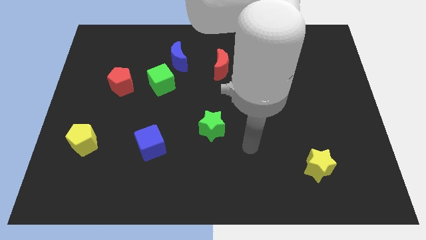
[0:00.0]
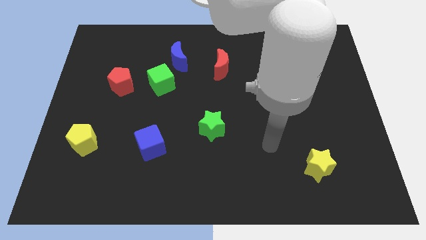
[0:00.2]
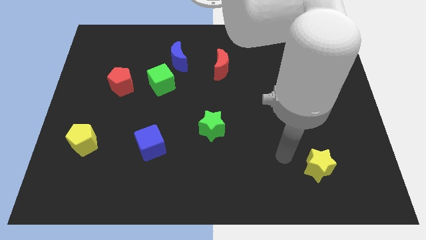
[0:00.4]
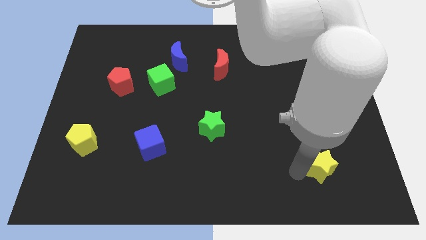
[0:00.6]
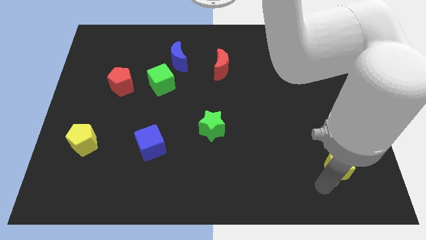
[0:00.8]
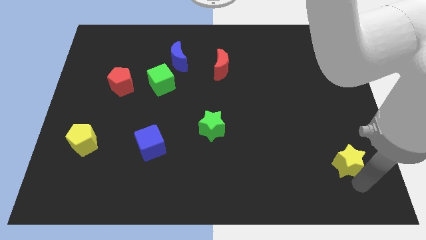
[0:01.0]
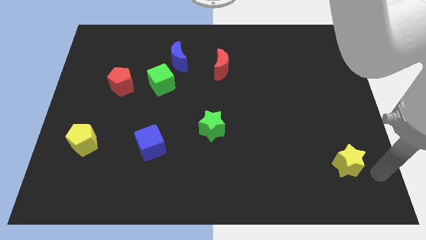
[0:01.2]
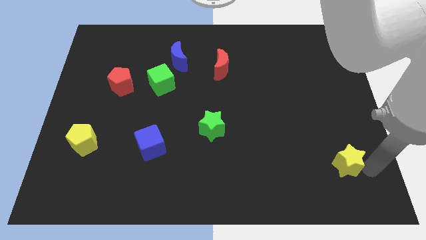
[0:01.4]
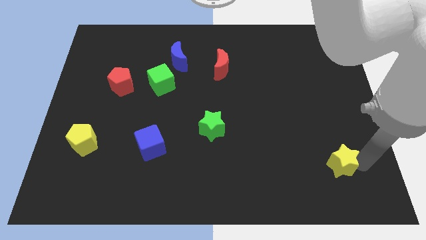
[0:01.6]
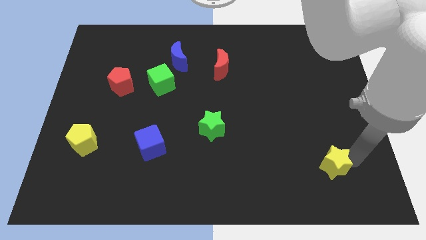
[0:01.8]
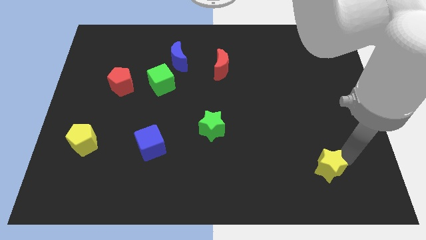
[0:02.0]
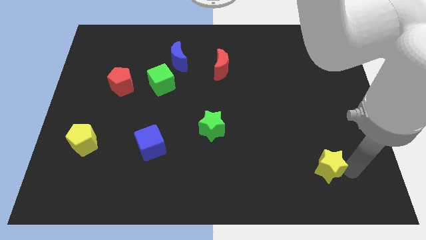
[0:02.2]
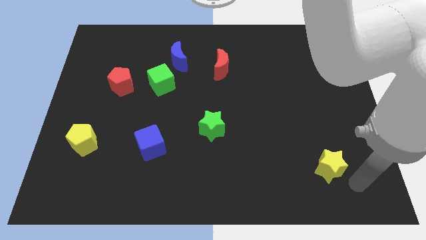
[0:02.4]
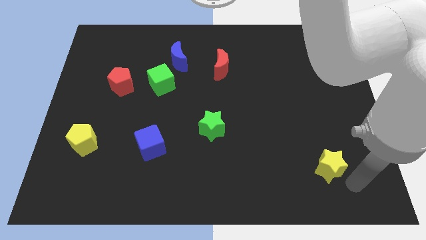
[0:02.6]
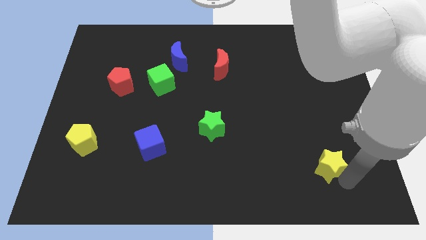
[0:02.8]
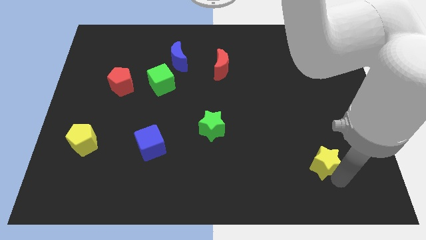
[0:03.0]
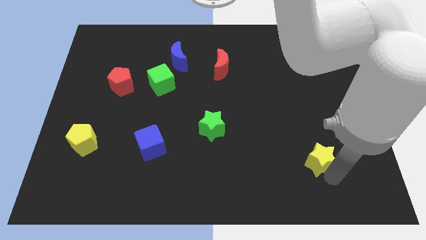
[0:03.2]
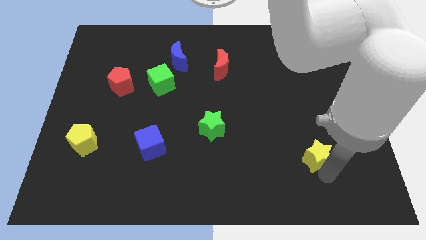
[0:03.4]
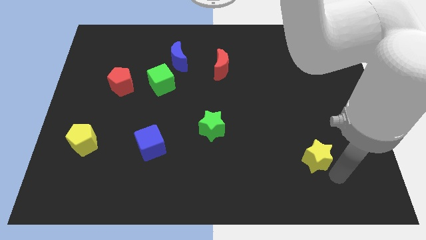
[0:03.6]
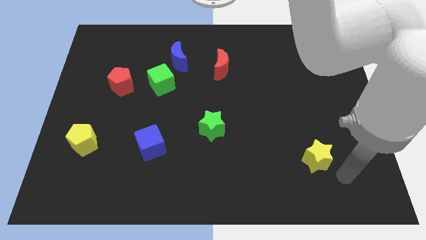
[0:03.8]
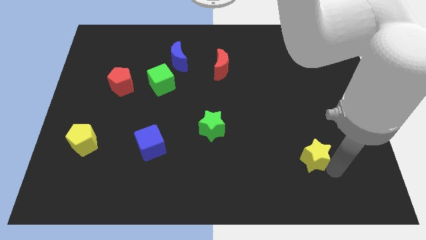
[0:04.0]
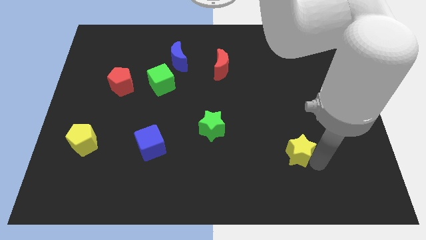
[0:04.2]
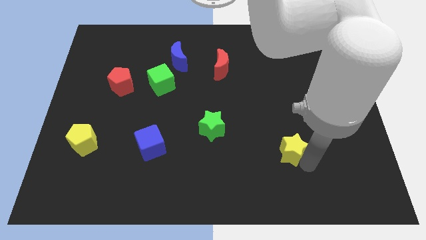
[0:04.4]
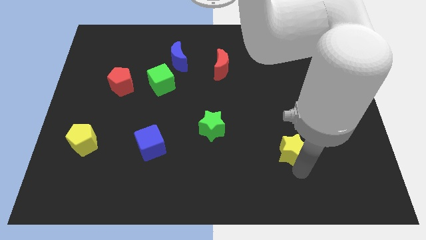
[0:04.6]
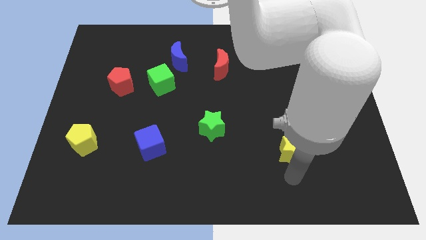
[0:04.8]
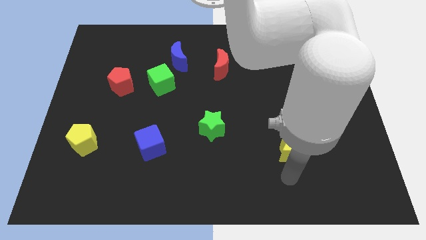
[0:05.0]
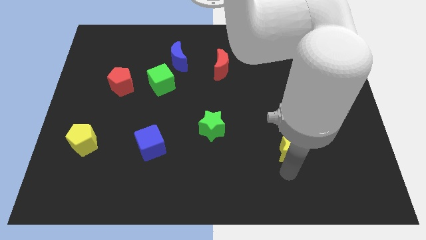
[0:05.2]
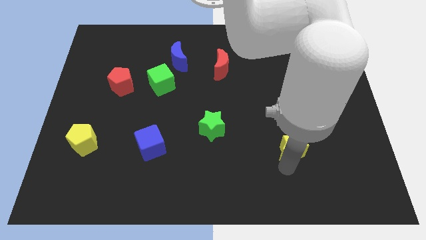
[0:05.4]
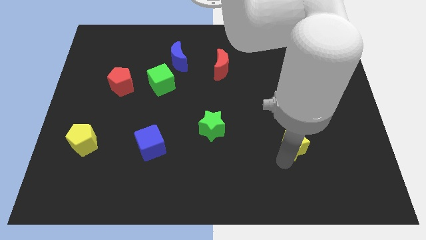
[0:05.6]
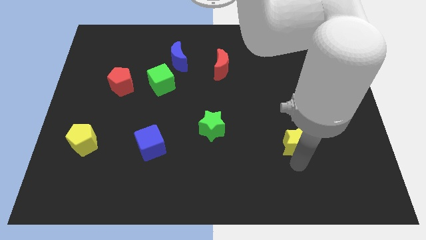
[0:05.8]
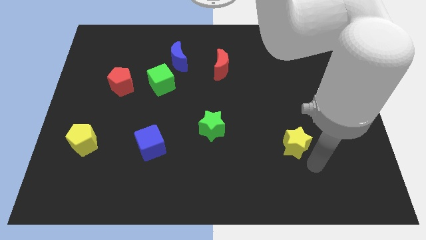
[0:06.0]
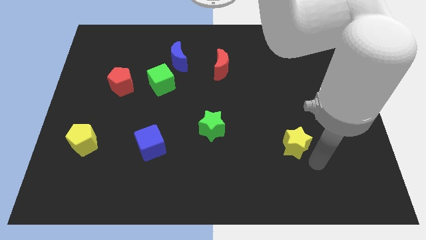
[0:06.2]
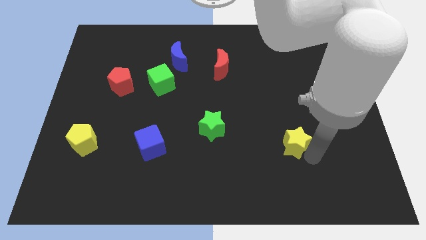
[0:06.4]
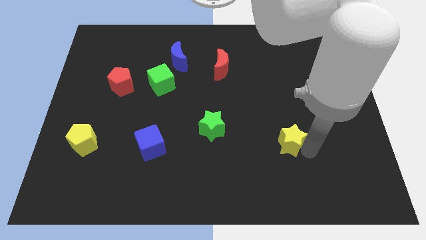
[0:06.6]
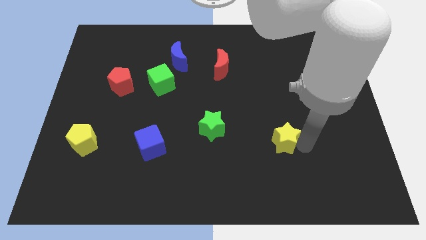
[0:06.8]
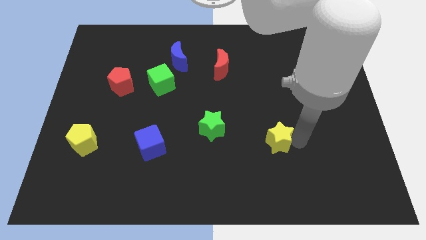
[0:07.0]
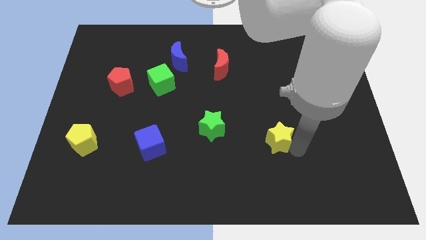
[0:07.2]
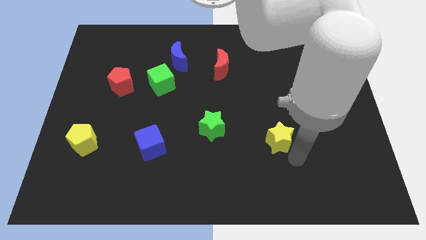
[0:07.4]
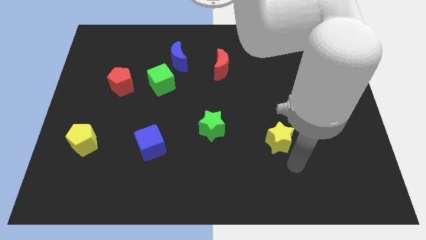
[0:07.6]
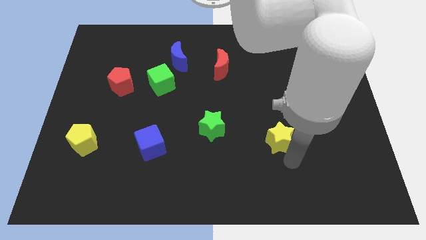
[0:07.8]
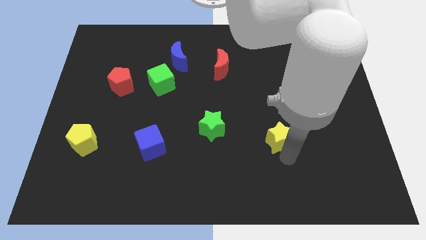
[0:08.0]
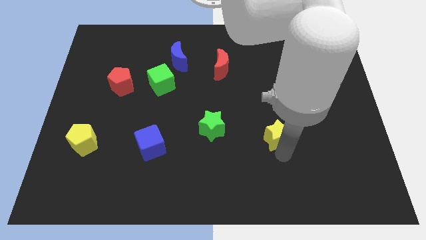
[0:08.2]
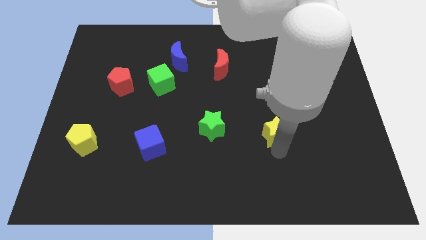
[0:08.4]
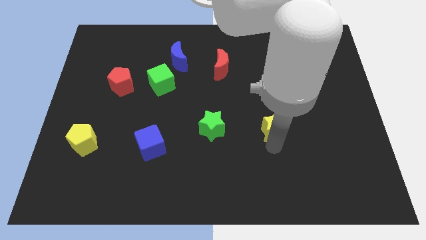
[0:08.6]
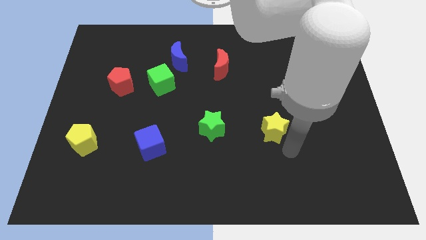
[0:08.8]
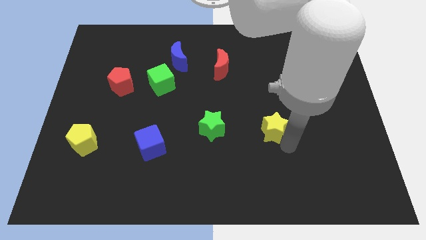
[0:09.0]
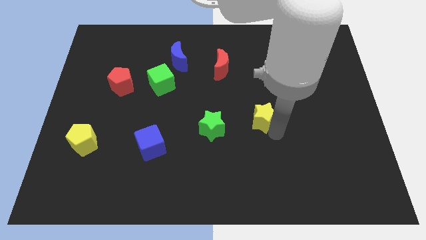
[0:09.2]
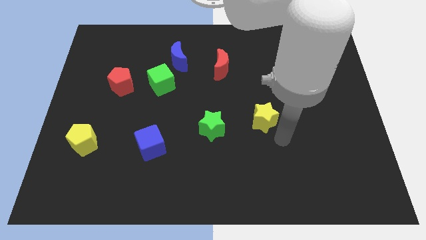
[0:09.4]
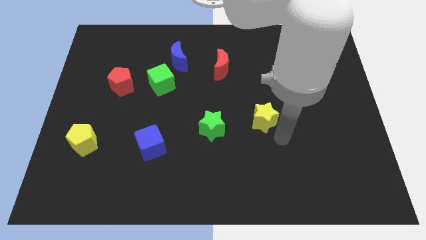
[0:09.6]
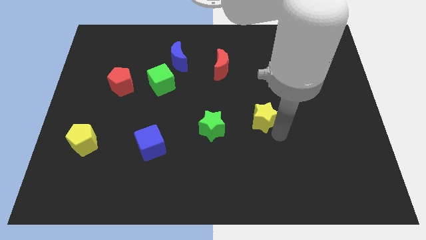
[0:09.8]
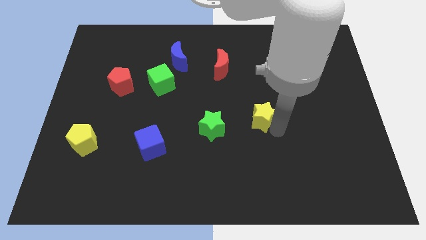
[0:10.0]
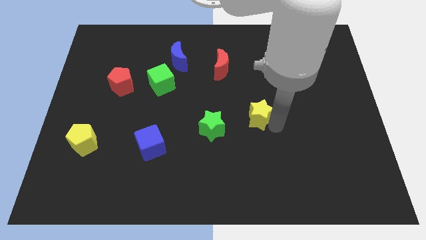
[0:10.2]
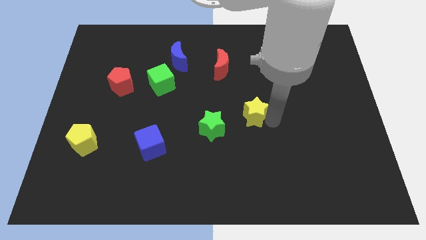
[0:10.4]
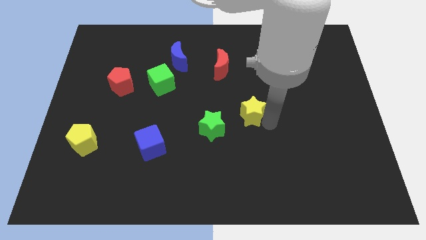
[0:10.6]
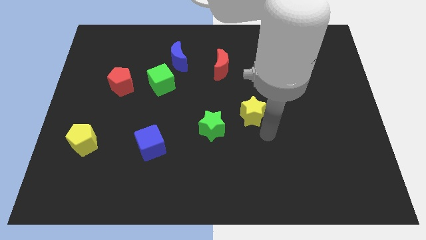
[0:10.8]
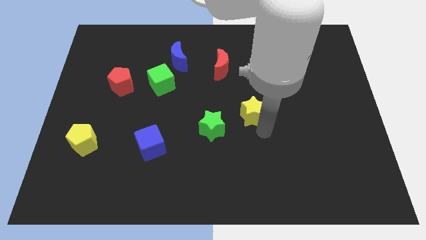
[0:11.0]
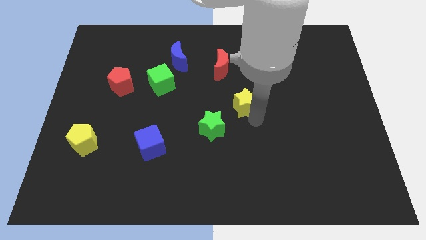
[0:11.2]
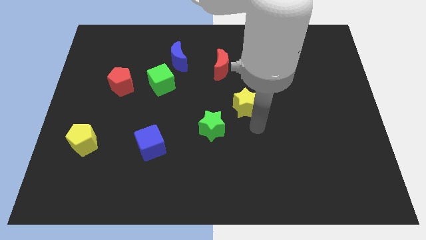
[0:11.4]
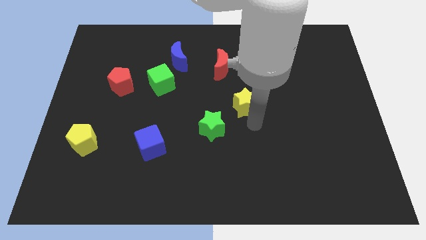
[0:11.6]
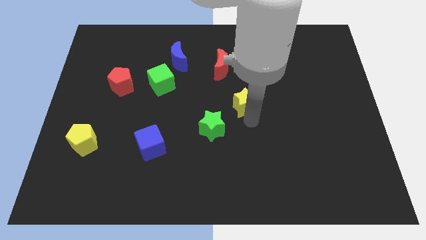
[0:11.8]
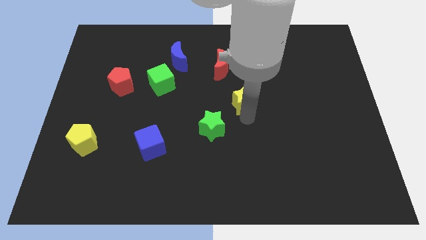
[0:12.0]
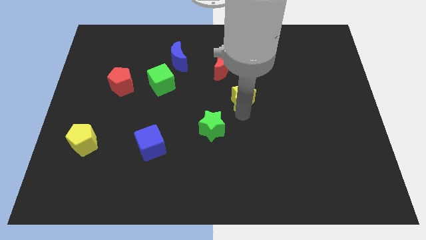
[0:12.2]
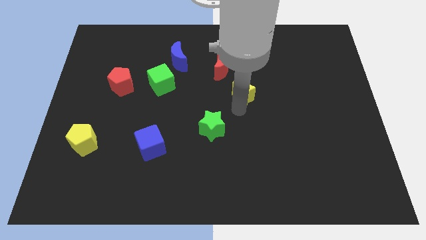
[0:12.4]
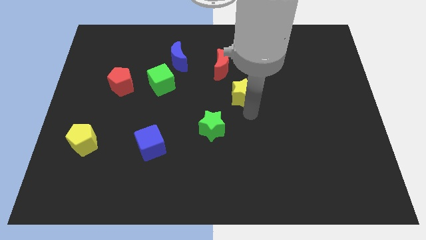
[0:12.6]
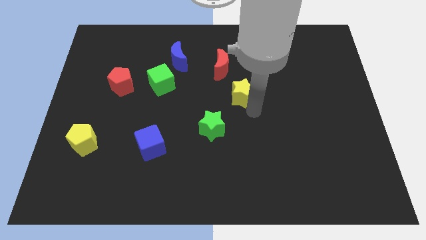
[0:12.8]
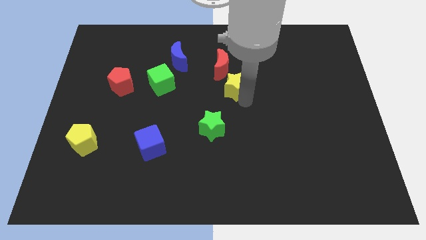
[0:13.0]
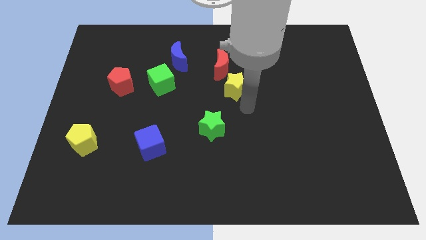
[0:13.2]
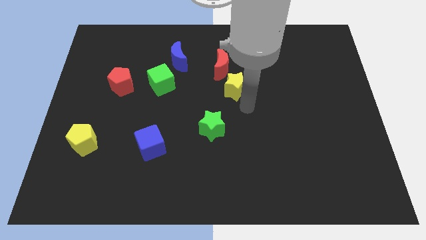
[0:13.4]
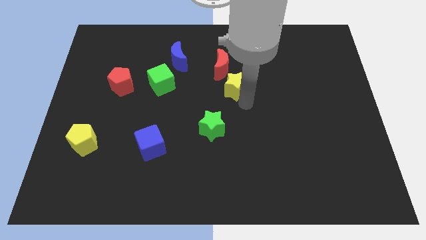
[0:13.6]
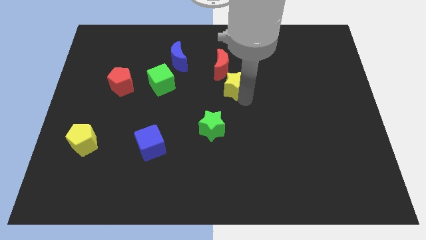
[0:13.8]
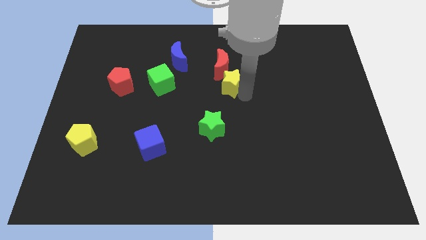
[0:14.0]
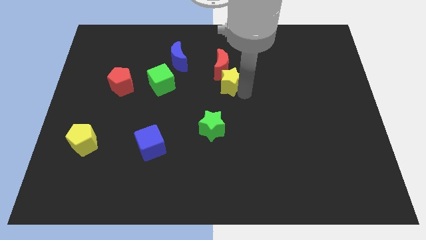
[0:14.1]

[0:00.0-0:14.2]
move the yellow star close to the red moon

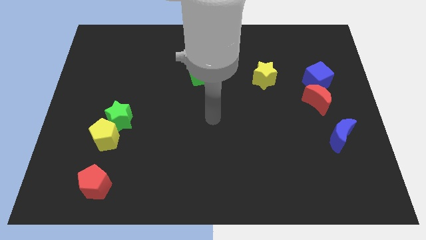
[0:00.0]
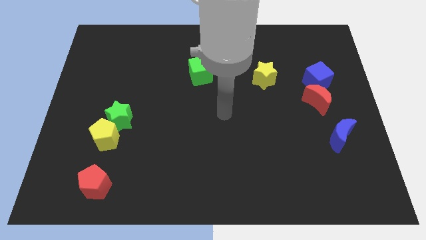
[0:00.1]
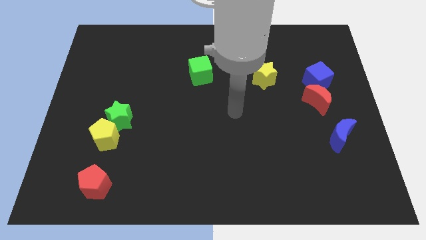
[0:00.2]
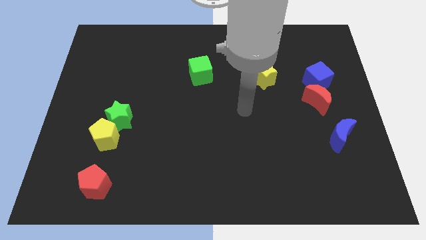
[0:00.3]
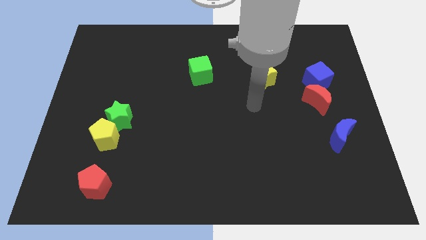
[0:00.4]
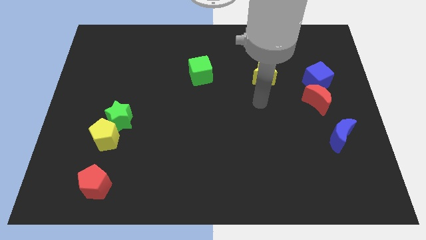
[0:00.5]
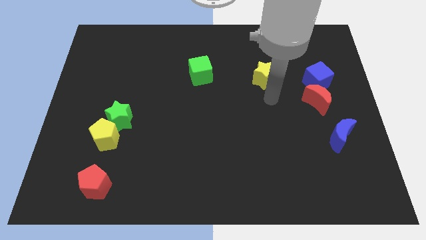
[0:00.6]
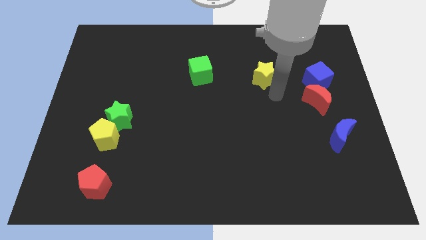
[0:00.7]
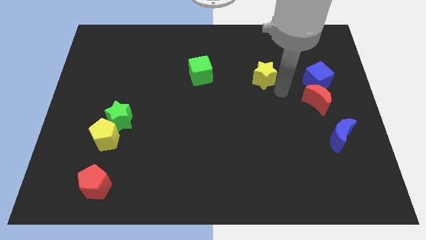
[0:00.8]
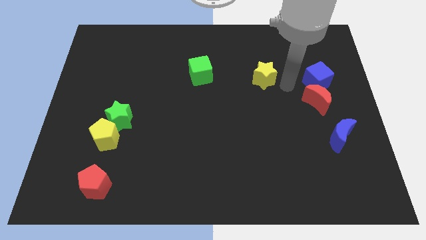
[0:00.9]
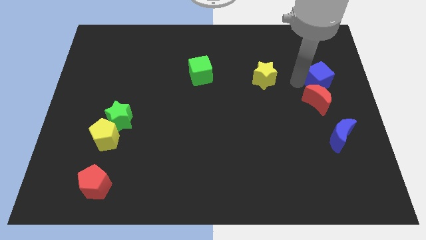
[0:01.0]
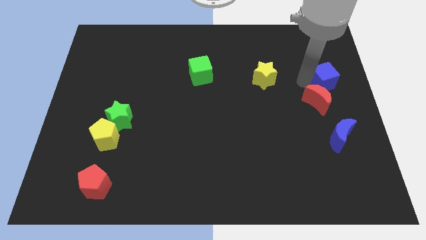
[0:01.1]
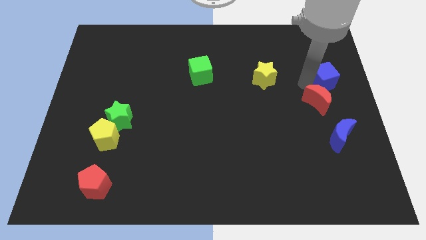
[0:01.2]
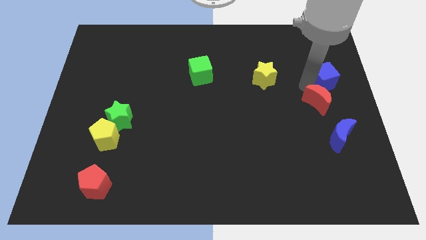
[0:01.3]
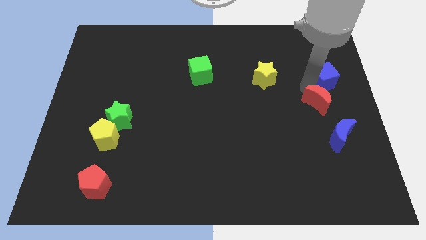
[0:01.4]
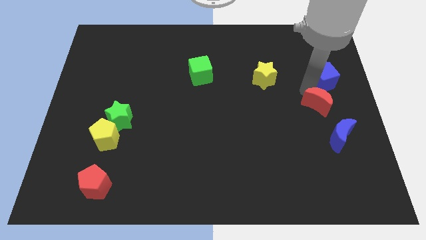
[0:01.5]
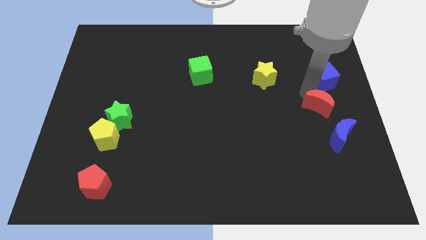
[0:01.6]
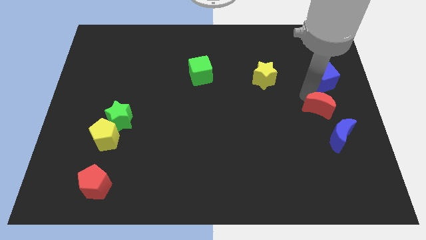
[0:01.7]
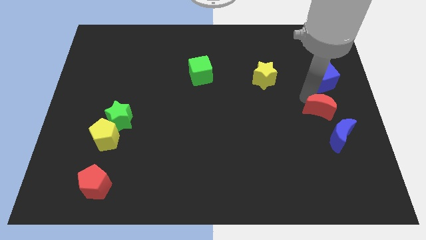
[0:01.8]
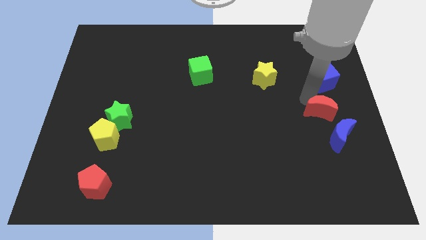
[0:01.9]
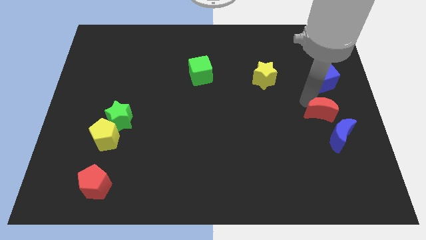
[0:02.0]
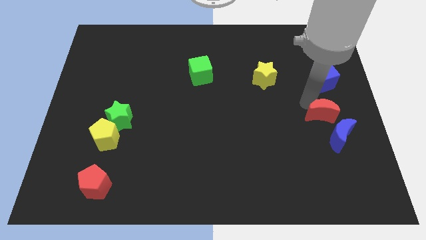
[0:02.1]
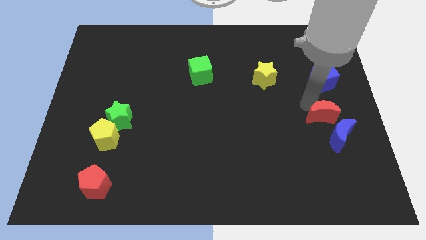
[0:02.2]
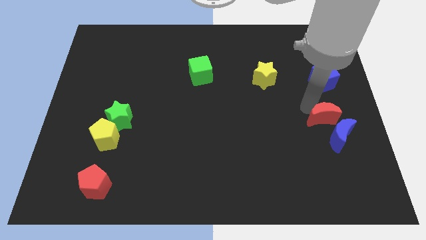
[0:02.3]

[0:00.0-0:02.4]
put the red moon towards the blue moon
